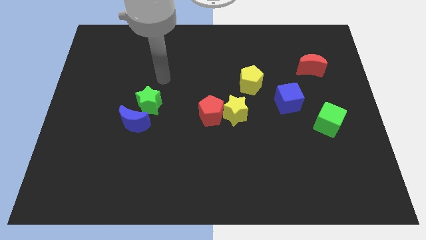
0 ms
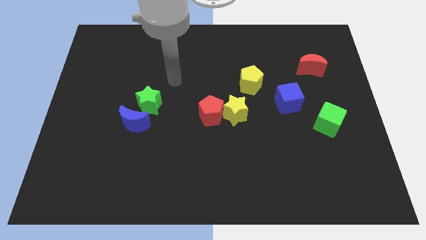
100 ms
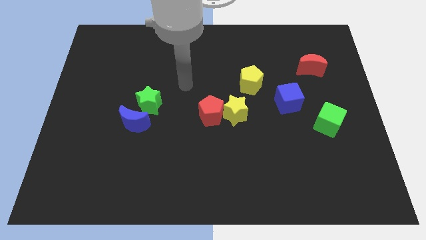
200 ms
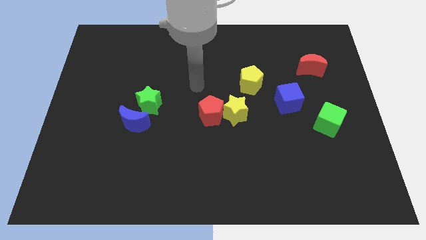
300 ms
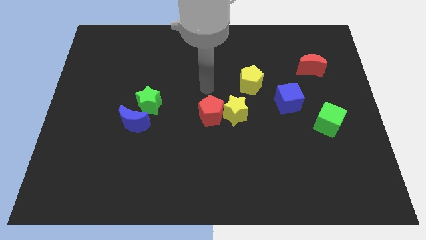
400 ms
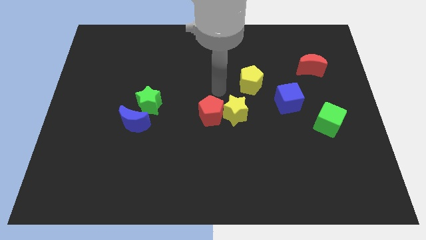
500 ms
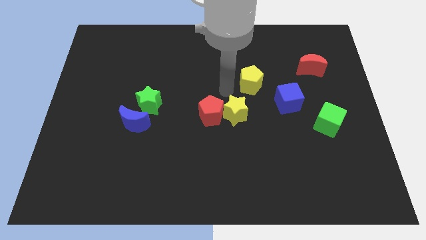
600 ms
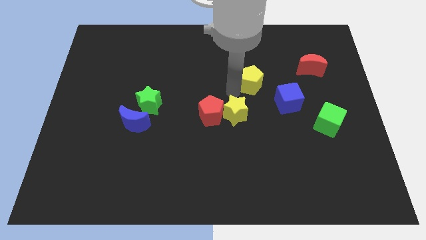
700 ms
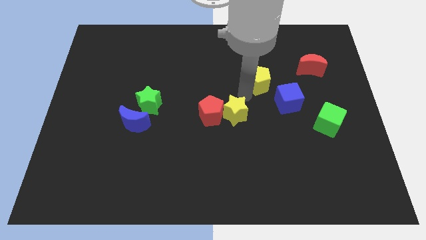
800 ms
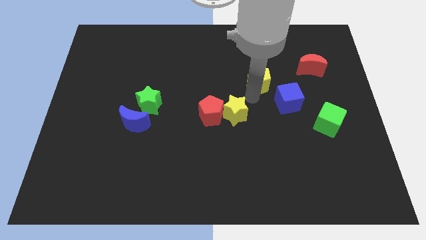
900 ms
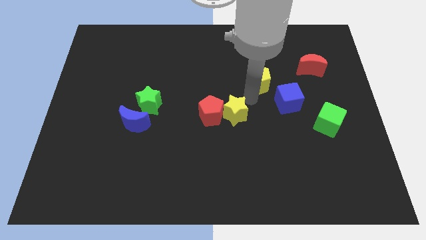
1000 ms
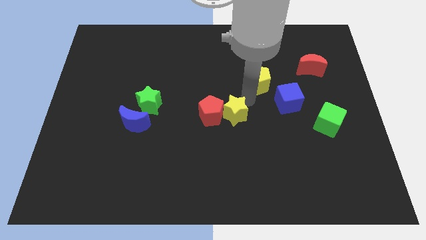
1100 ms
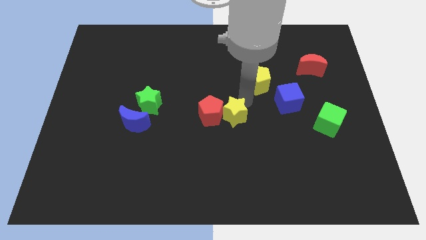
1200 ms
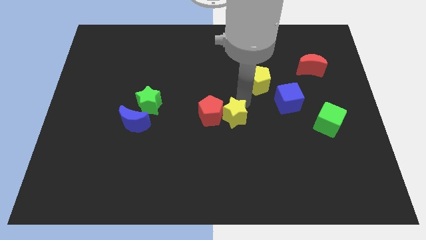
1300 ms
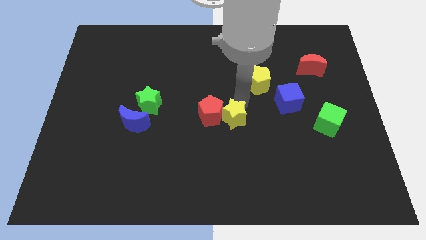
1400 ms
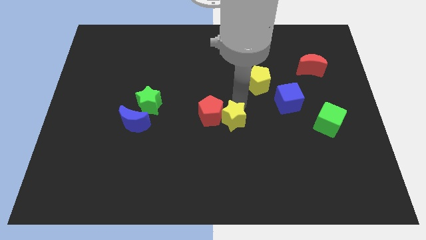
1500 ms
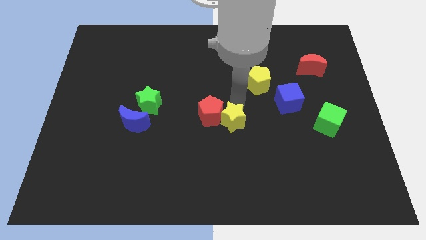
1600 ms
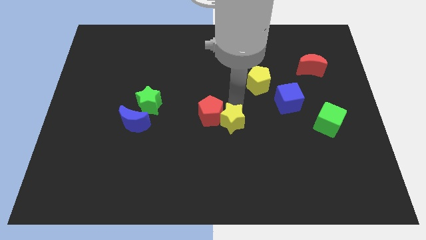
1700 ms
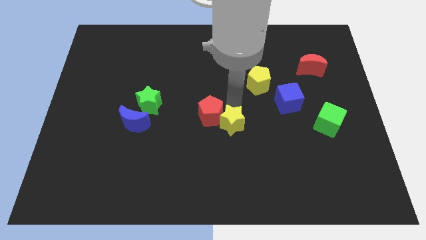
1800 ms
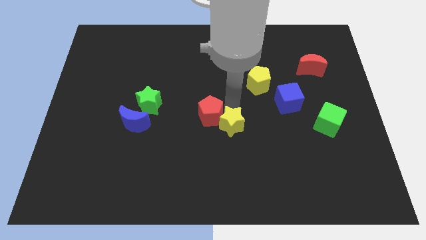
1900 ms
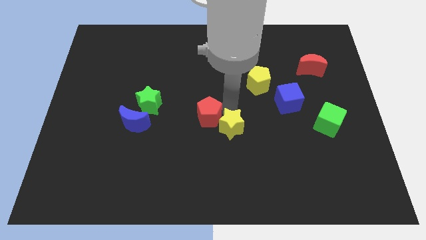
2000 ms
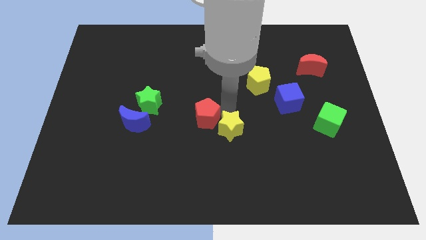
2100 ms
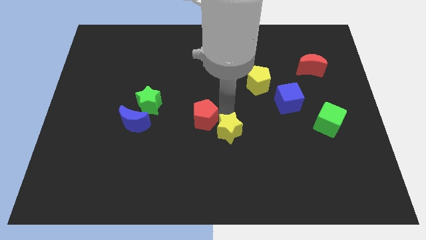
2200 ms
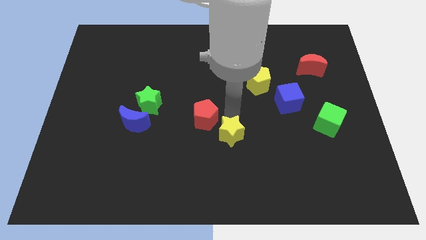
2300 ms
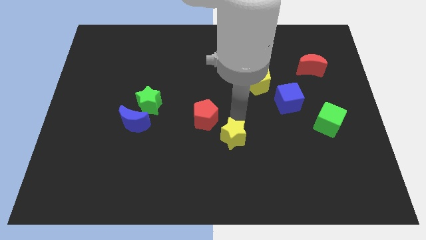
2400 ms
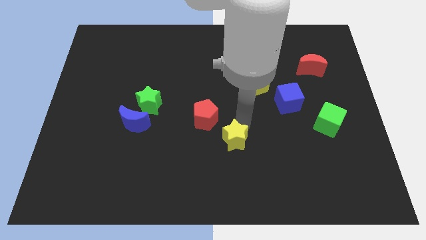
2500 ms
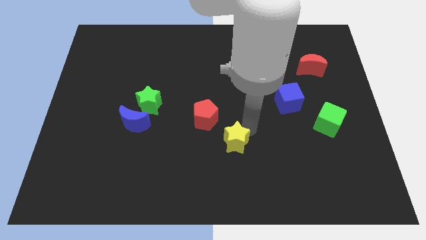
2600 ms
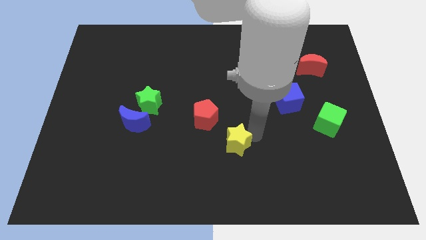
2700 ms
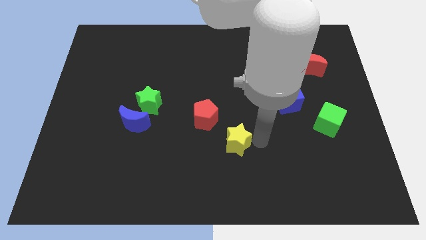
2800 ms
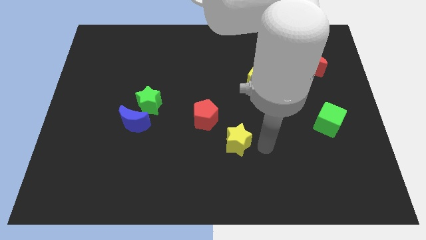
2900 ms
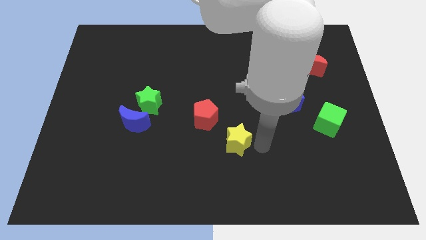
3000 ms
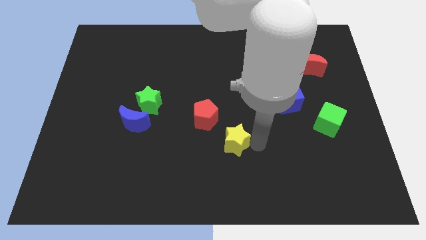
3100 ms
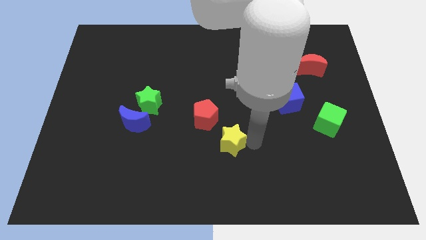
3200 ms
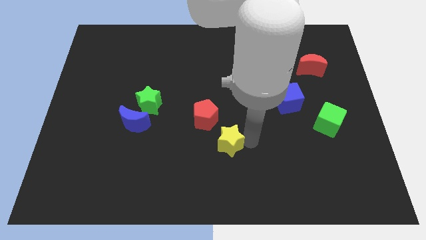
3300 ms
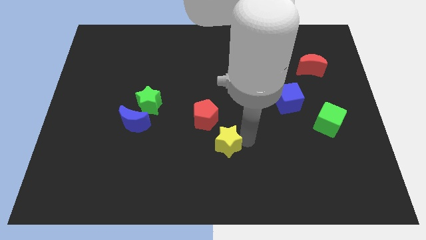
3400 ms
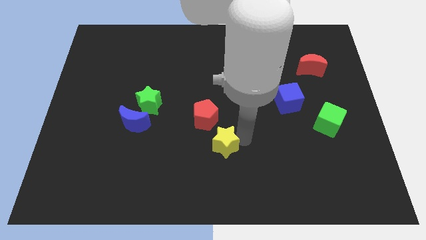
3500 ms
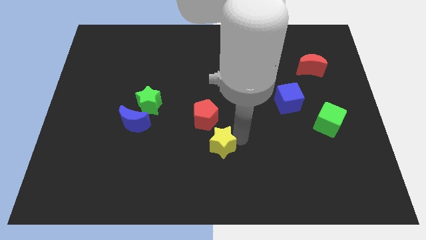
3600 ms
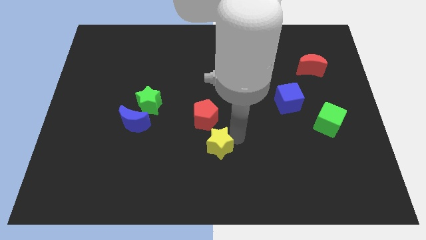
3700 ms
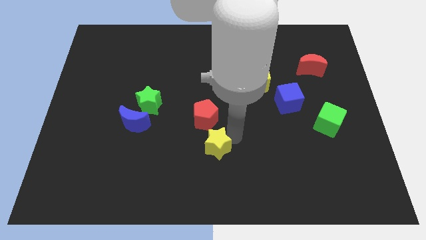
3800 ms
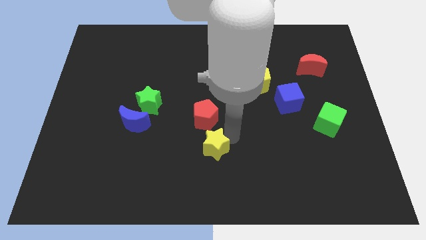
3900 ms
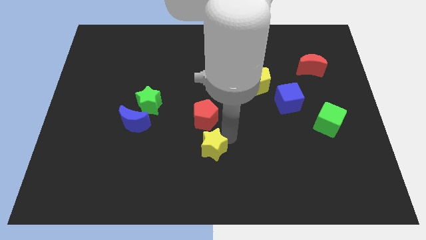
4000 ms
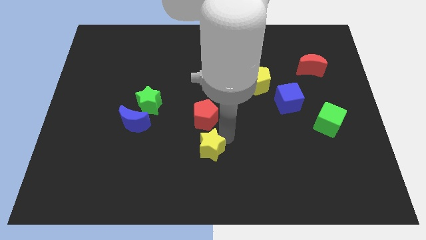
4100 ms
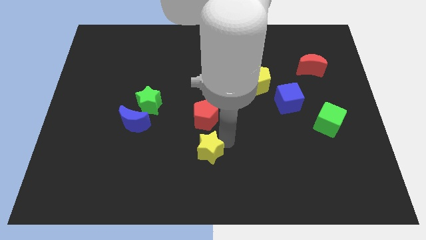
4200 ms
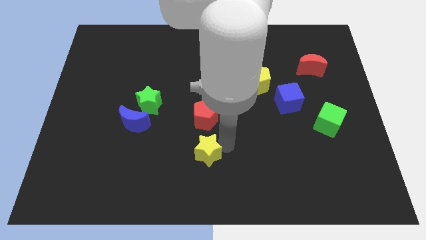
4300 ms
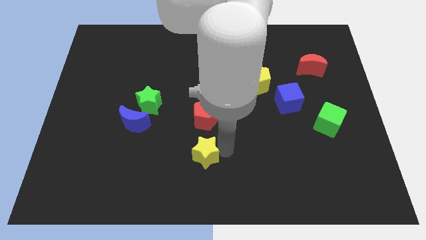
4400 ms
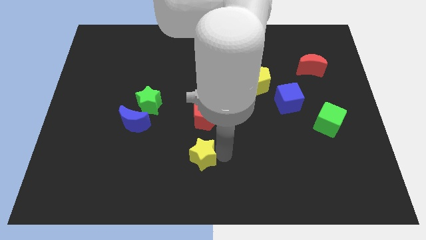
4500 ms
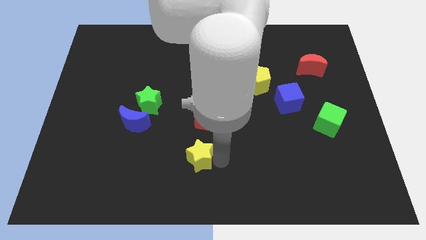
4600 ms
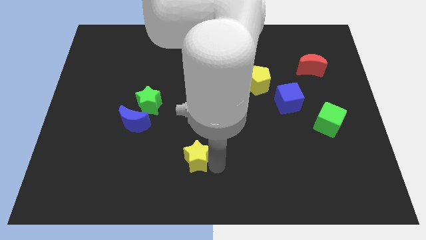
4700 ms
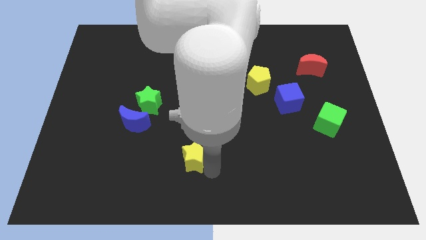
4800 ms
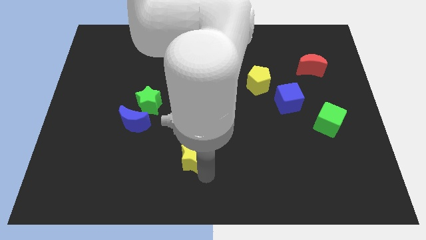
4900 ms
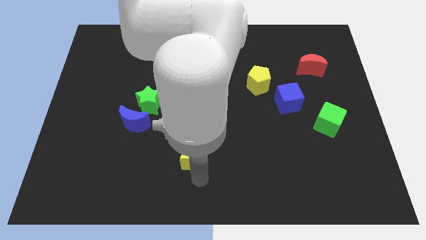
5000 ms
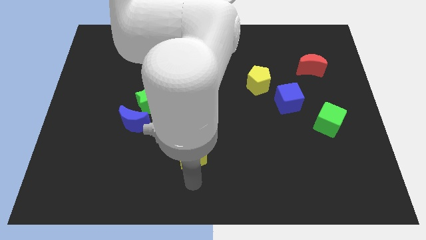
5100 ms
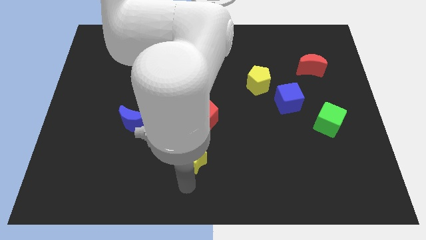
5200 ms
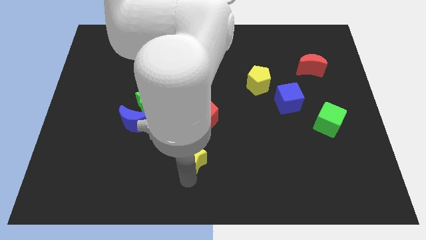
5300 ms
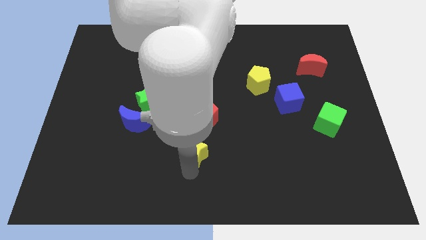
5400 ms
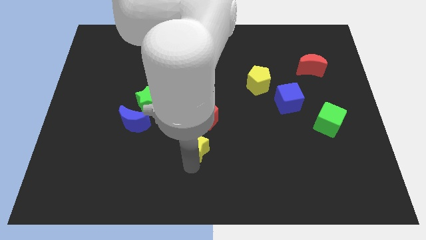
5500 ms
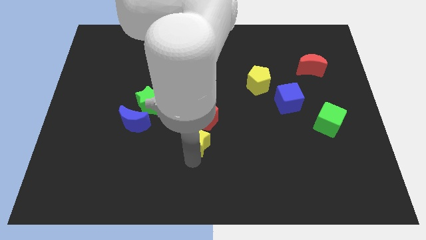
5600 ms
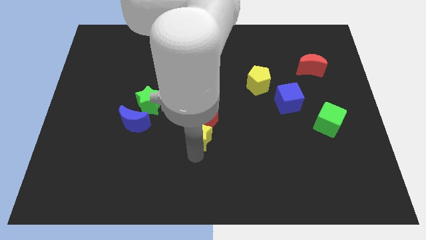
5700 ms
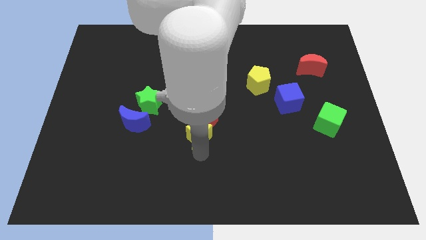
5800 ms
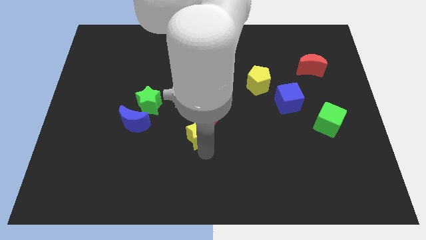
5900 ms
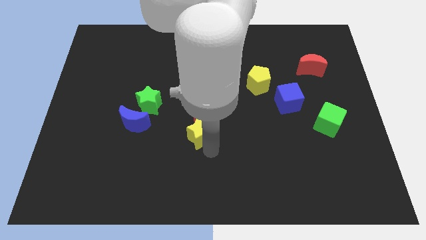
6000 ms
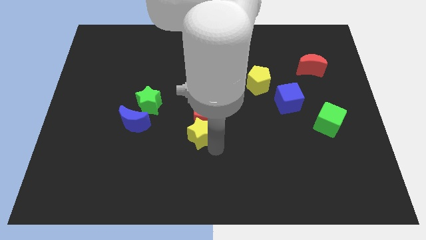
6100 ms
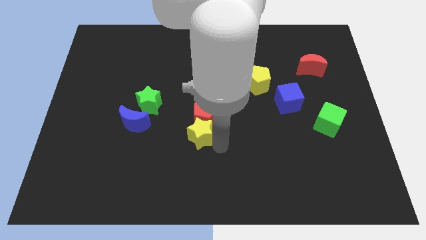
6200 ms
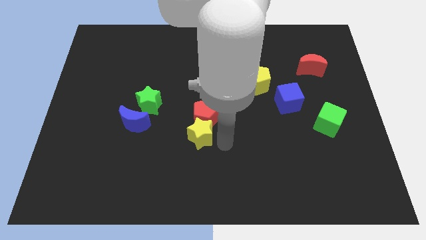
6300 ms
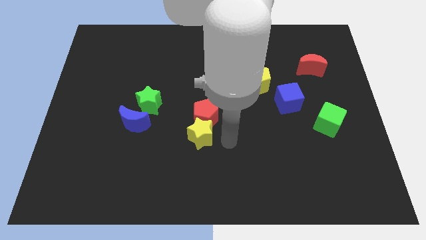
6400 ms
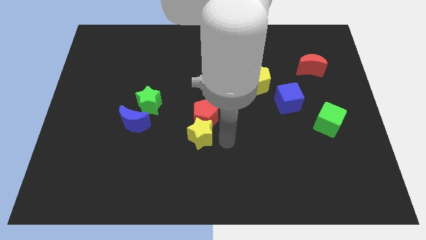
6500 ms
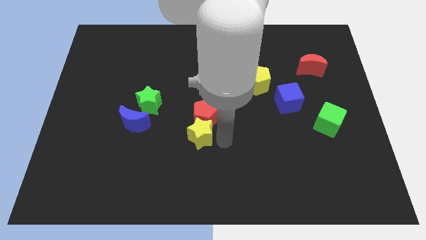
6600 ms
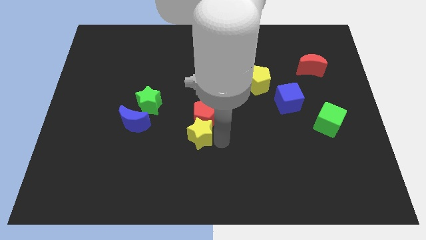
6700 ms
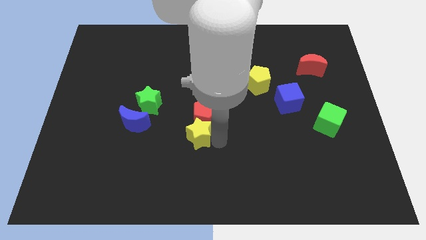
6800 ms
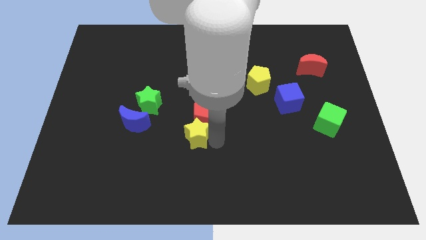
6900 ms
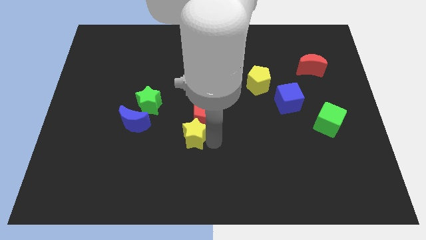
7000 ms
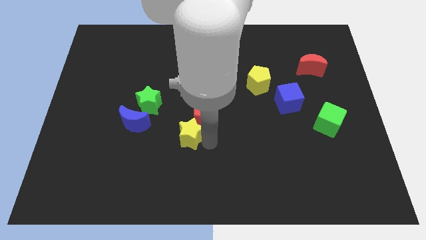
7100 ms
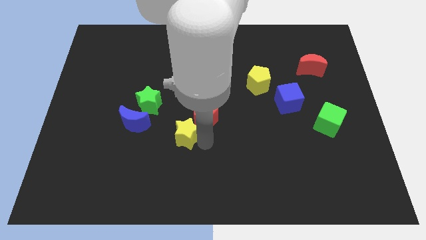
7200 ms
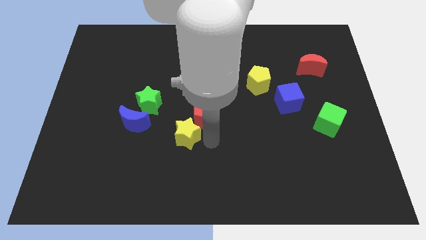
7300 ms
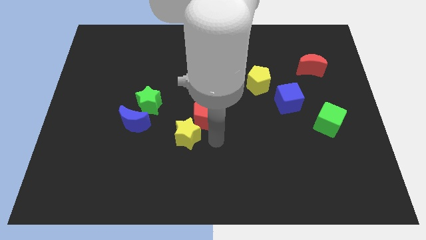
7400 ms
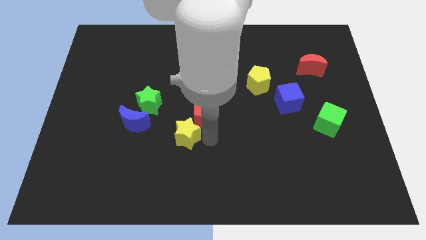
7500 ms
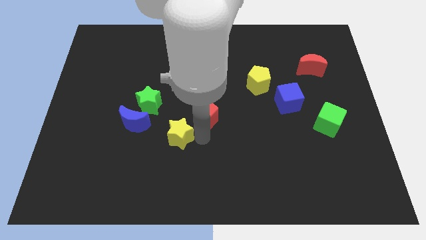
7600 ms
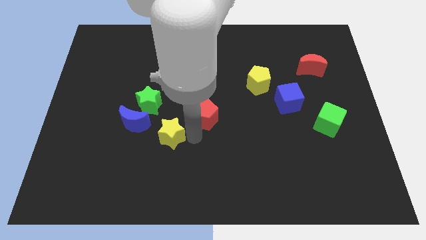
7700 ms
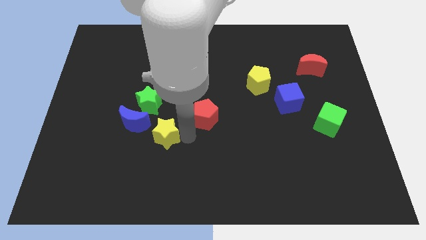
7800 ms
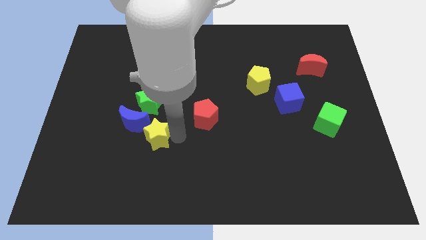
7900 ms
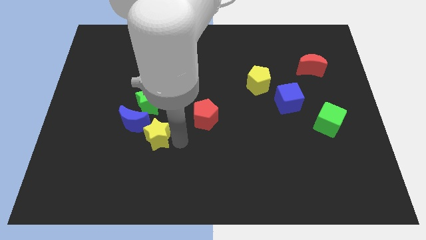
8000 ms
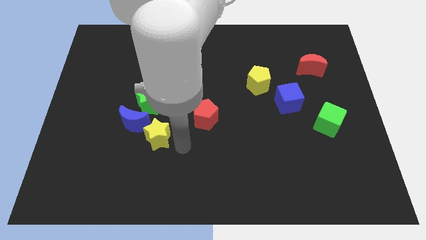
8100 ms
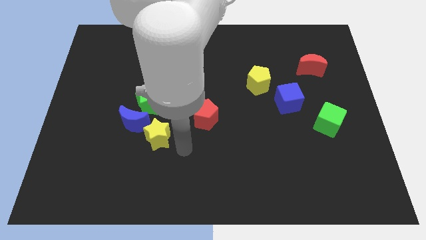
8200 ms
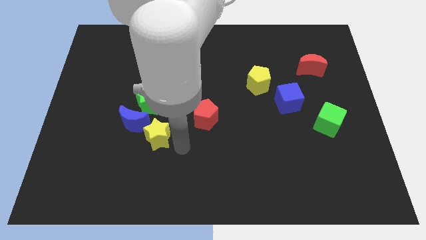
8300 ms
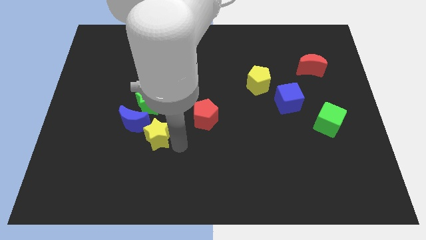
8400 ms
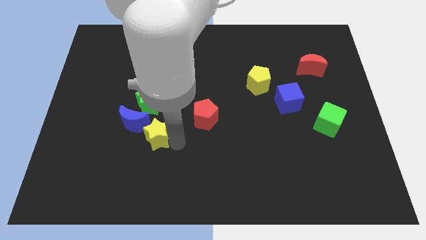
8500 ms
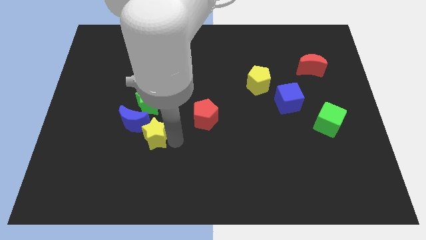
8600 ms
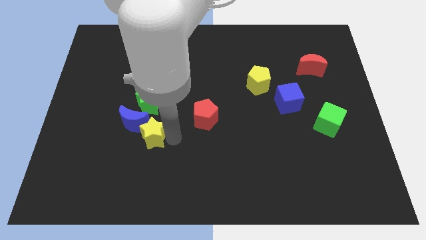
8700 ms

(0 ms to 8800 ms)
push the yellow star towards the blue moon
